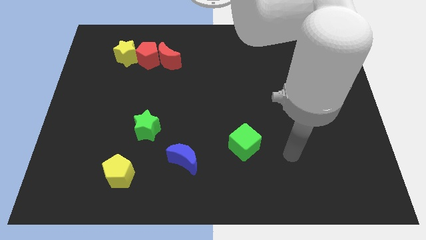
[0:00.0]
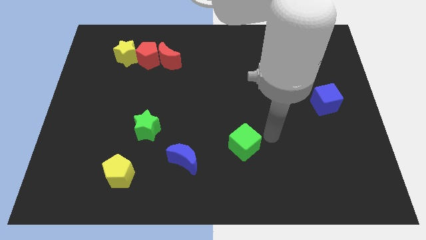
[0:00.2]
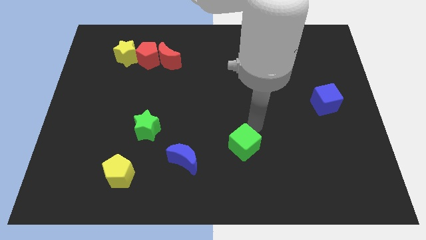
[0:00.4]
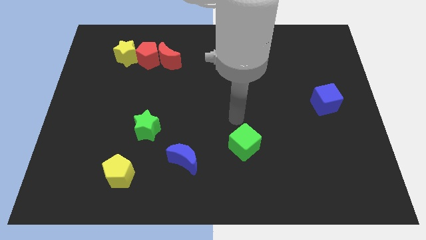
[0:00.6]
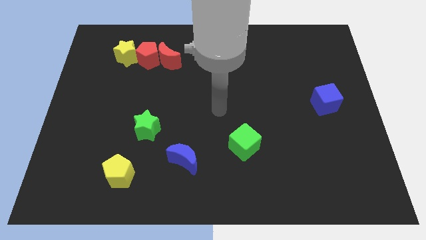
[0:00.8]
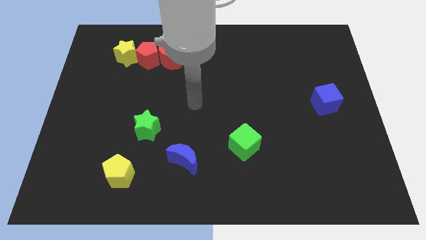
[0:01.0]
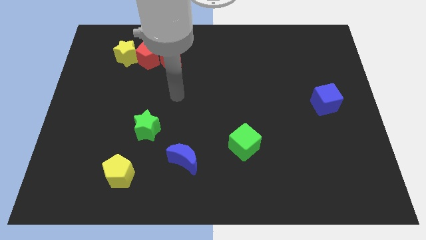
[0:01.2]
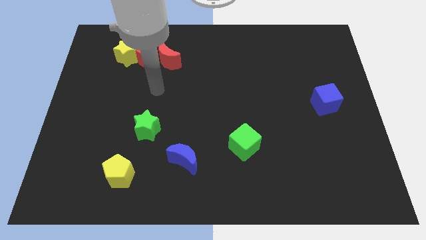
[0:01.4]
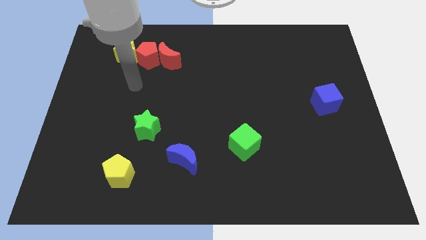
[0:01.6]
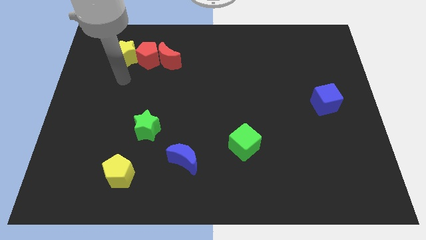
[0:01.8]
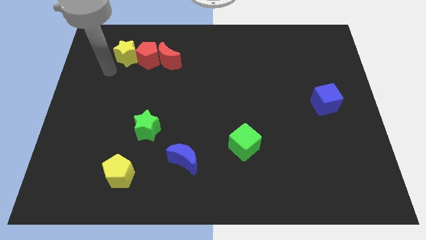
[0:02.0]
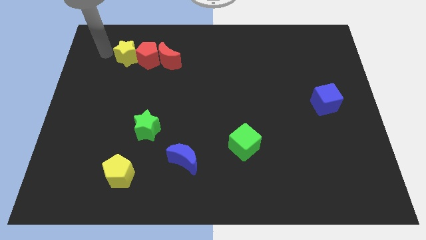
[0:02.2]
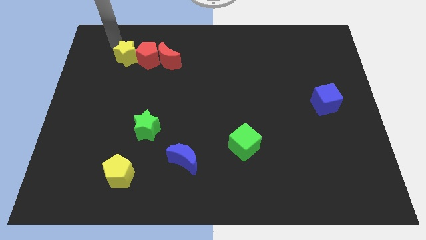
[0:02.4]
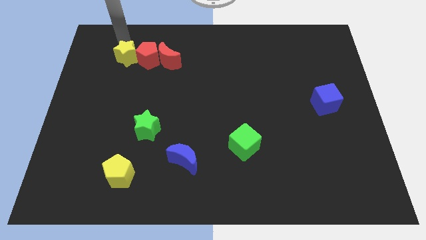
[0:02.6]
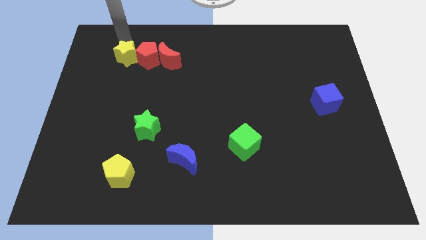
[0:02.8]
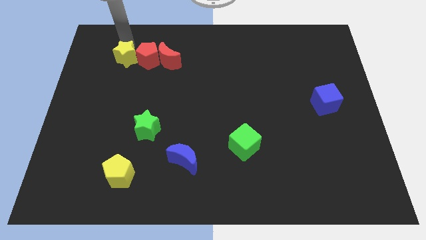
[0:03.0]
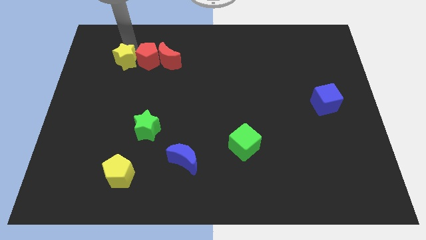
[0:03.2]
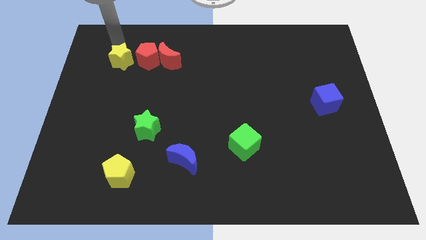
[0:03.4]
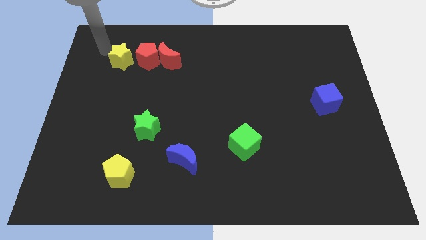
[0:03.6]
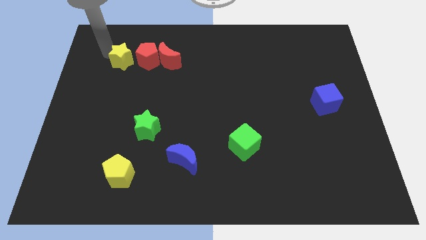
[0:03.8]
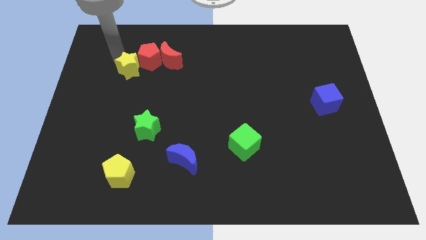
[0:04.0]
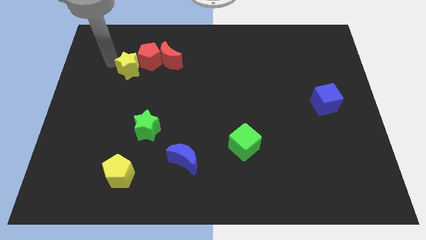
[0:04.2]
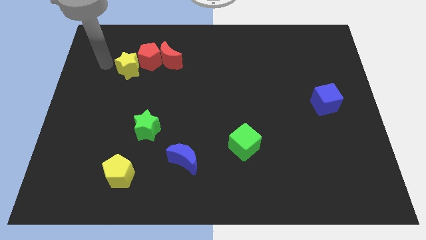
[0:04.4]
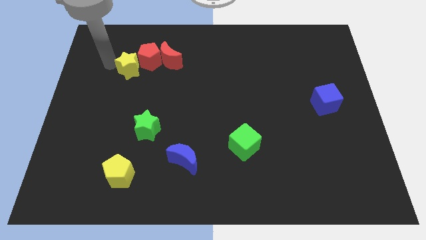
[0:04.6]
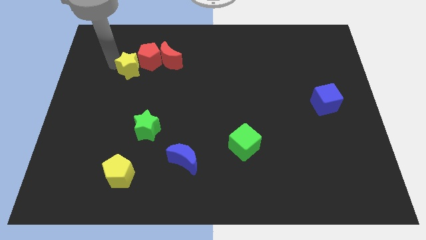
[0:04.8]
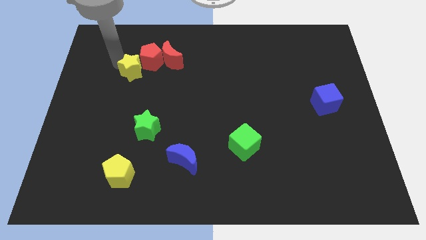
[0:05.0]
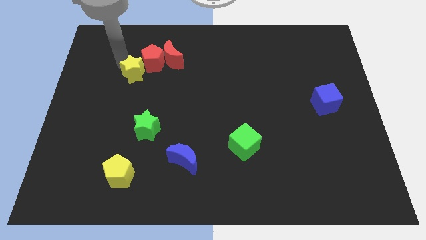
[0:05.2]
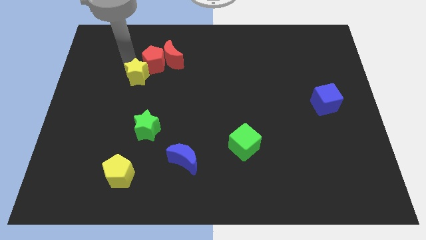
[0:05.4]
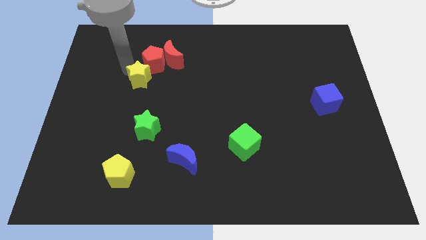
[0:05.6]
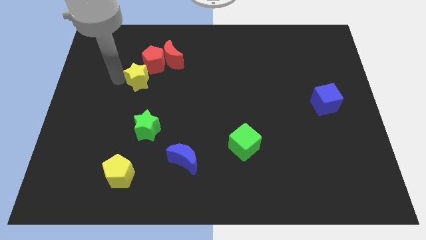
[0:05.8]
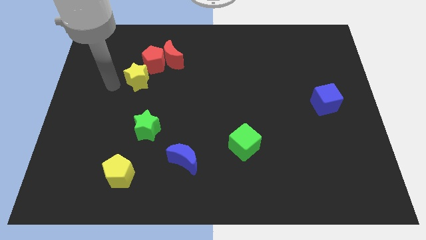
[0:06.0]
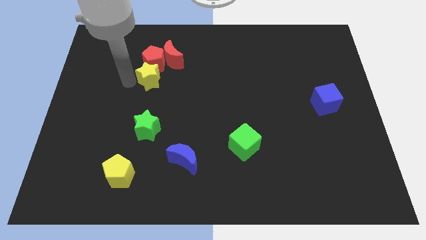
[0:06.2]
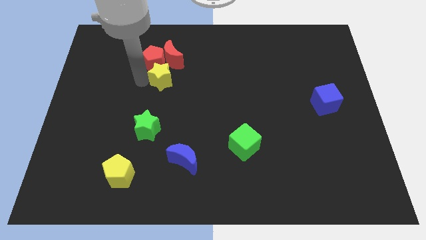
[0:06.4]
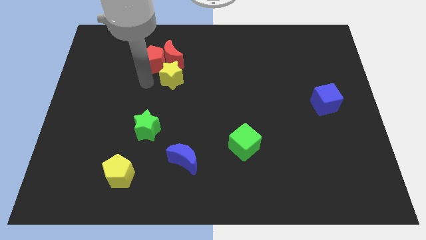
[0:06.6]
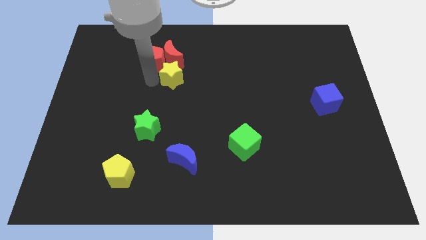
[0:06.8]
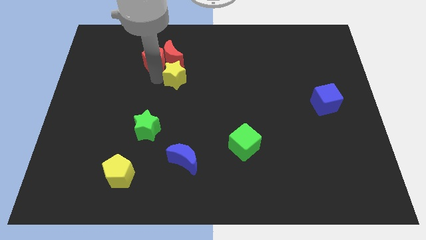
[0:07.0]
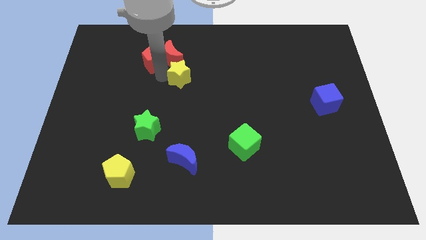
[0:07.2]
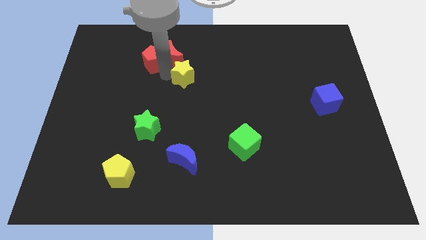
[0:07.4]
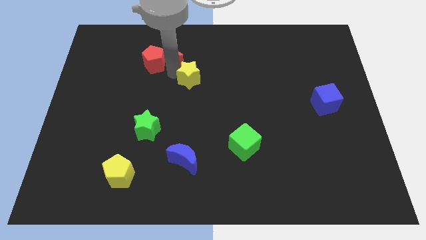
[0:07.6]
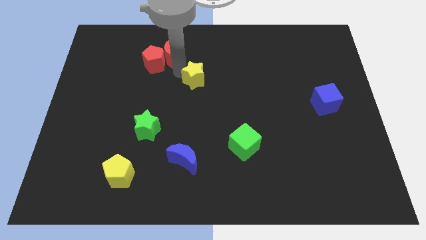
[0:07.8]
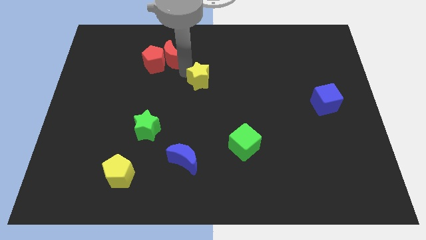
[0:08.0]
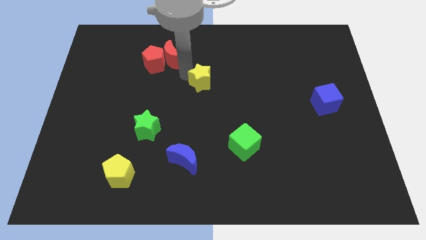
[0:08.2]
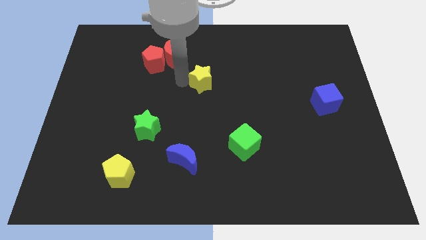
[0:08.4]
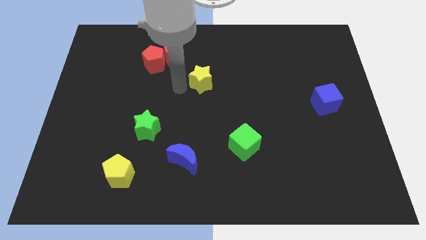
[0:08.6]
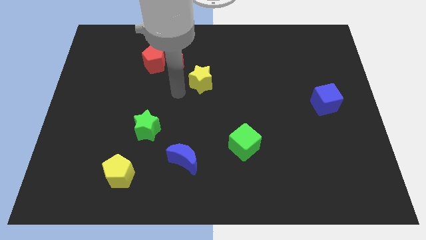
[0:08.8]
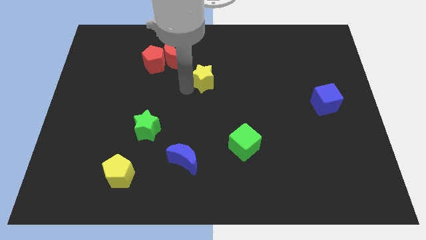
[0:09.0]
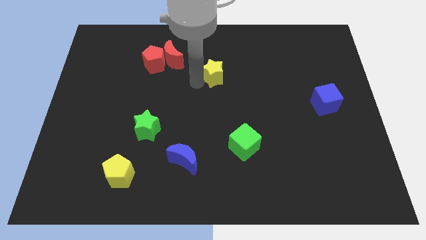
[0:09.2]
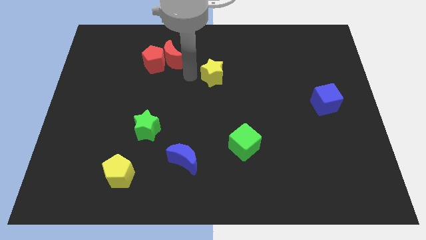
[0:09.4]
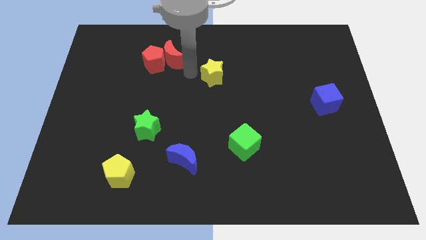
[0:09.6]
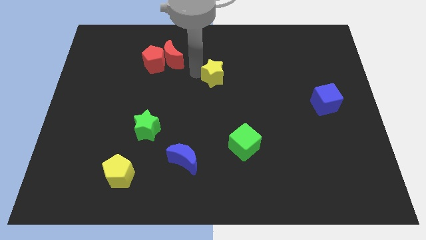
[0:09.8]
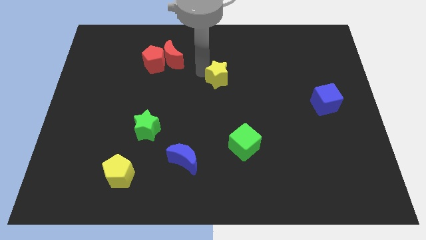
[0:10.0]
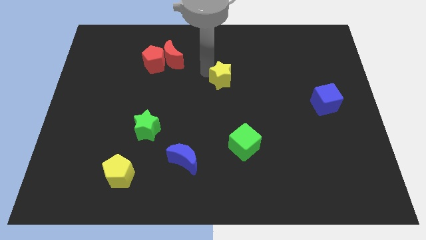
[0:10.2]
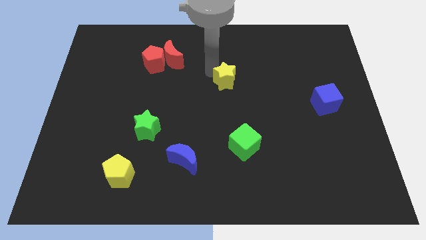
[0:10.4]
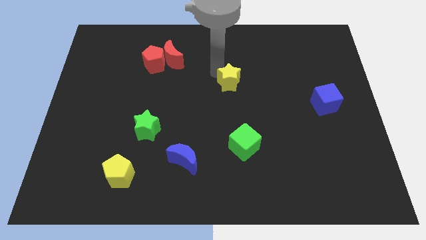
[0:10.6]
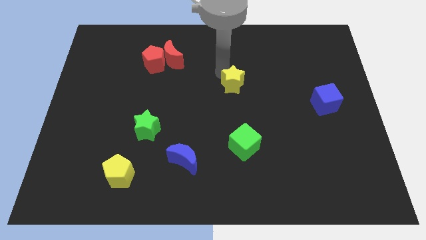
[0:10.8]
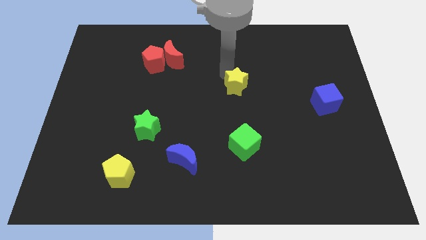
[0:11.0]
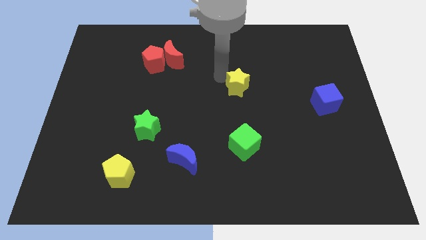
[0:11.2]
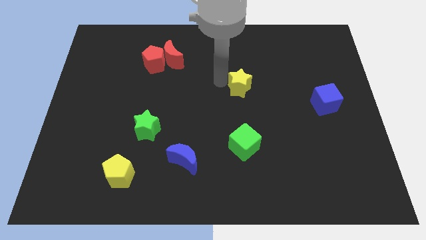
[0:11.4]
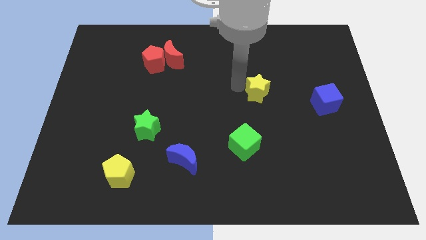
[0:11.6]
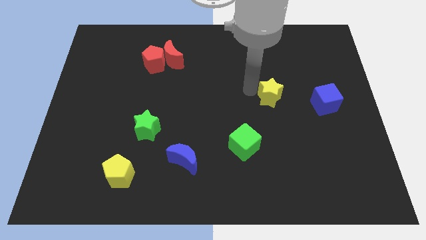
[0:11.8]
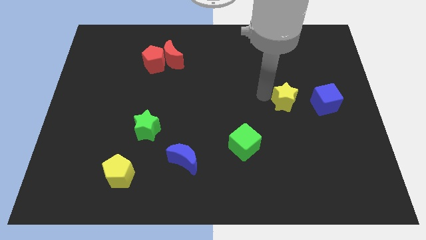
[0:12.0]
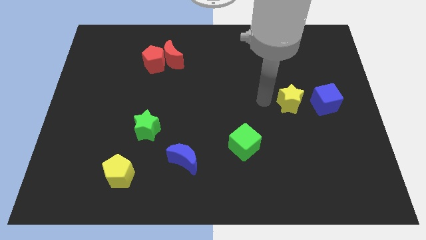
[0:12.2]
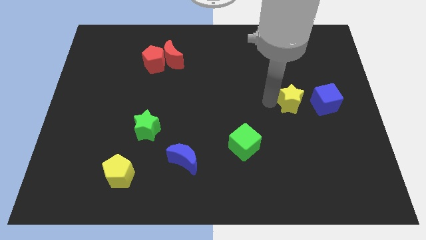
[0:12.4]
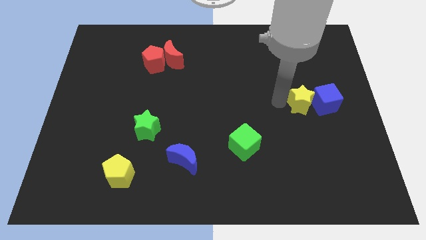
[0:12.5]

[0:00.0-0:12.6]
move the yellow star next to the blue cube
